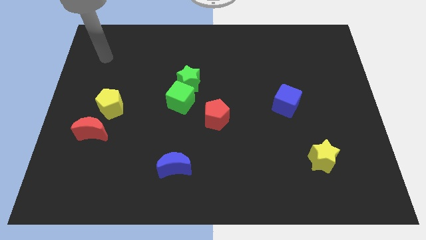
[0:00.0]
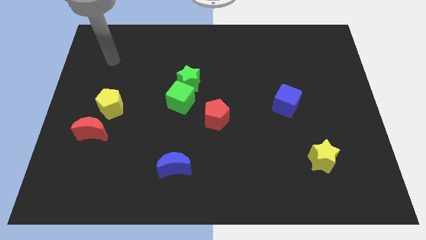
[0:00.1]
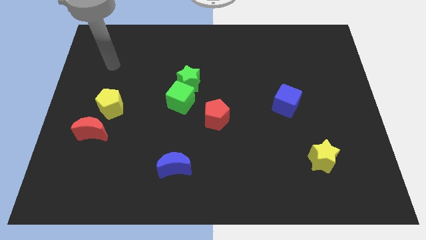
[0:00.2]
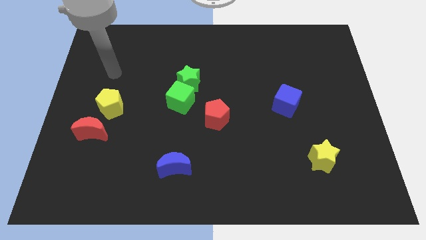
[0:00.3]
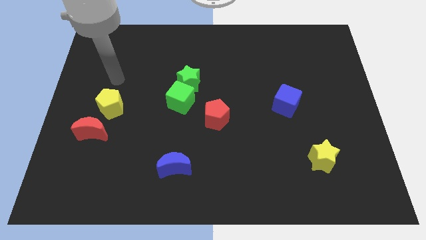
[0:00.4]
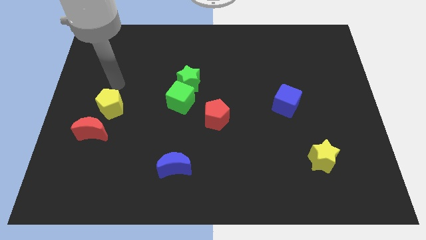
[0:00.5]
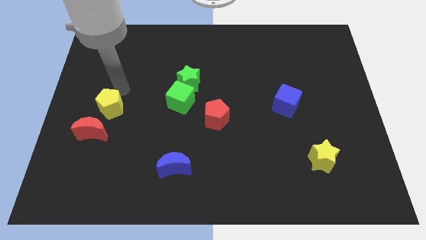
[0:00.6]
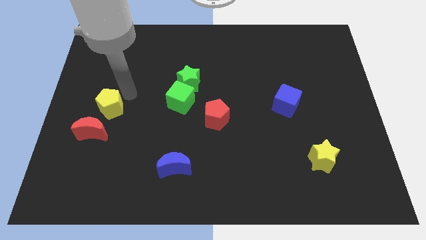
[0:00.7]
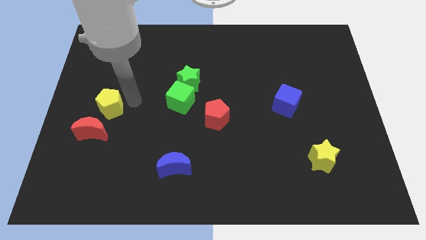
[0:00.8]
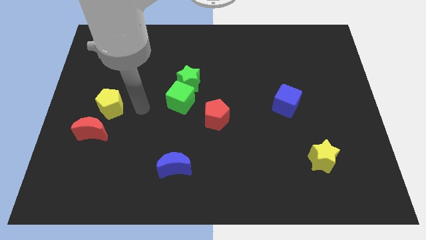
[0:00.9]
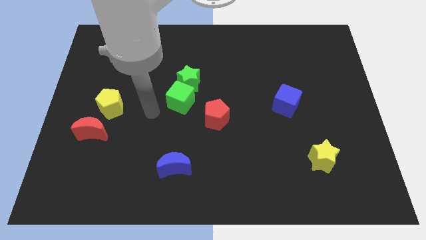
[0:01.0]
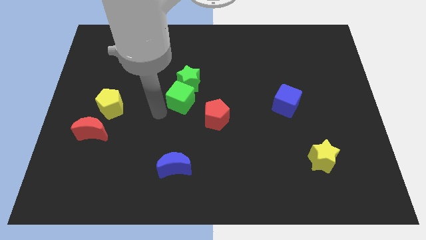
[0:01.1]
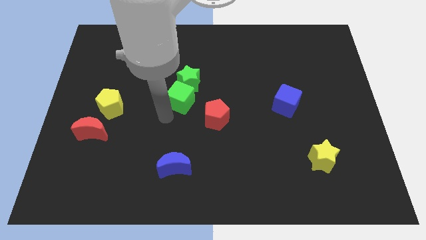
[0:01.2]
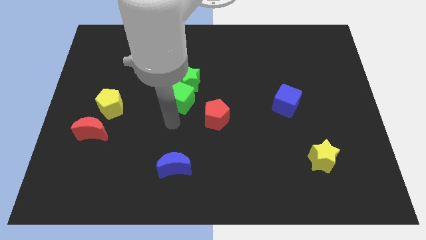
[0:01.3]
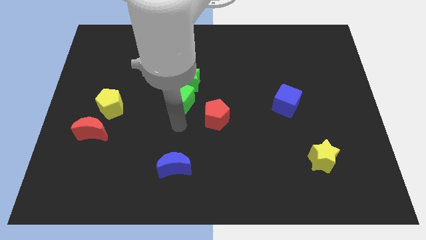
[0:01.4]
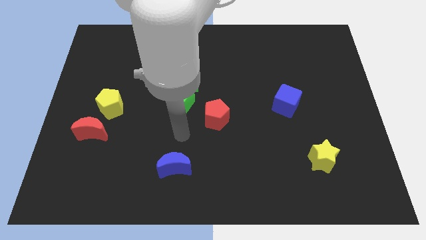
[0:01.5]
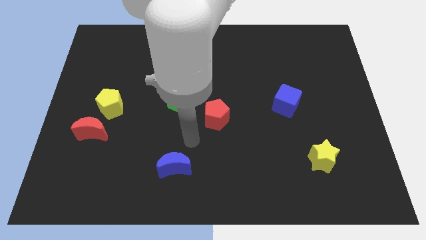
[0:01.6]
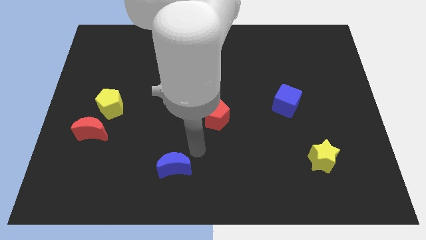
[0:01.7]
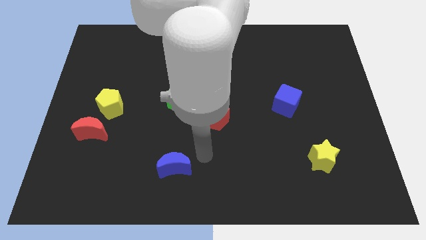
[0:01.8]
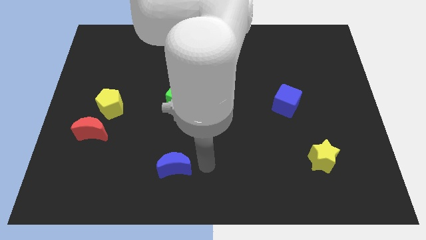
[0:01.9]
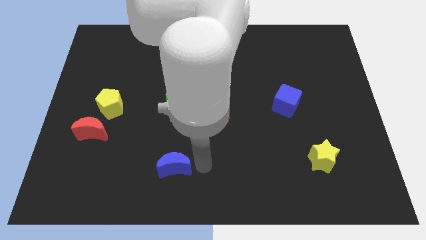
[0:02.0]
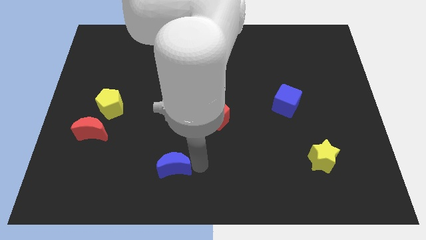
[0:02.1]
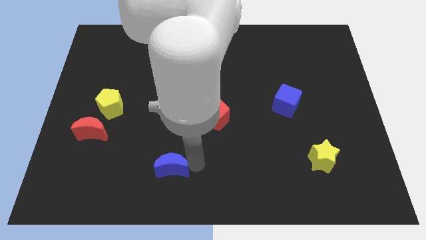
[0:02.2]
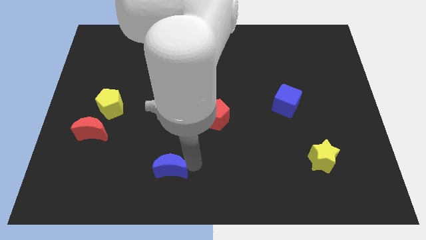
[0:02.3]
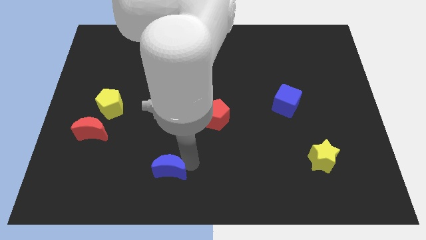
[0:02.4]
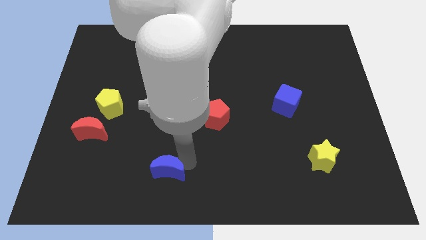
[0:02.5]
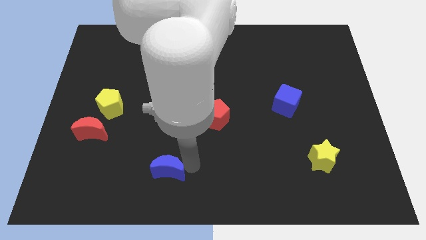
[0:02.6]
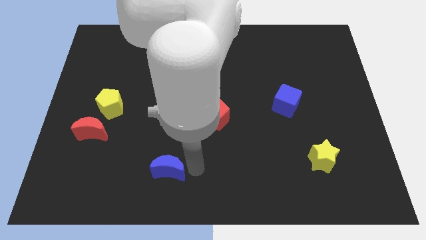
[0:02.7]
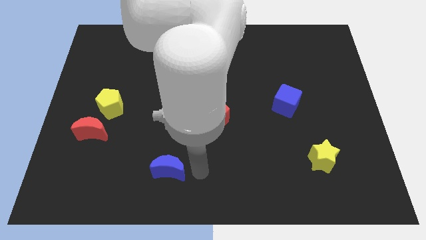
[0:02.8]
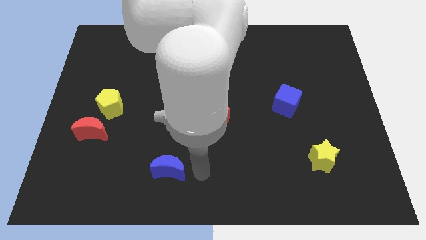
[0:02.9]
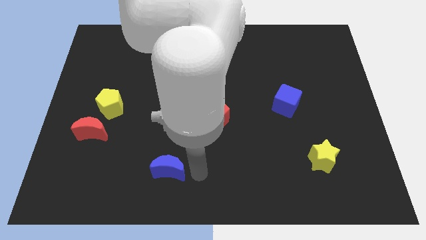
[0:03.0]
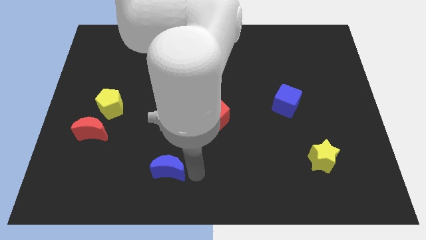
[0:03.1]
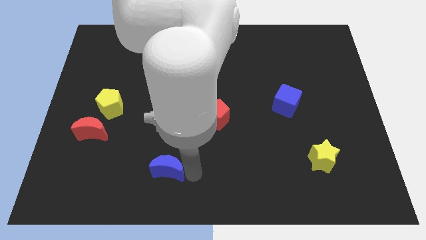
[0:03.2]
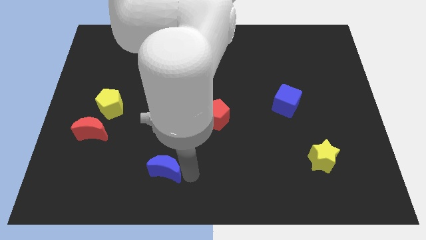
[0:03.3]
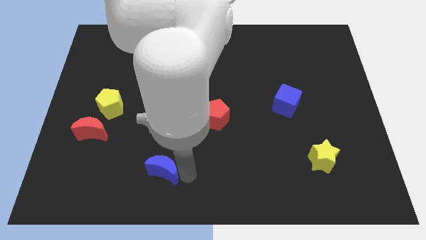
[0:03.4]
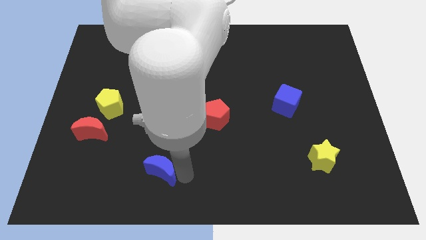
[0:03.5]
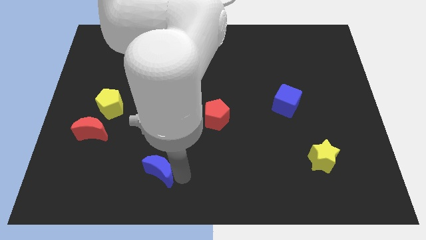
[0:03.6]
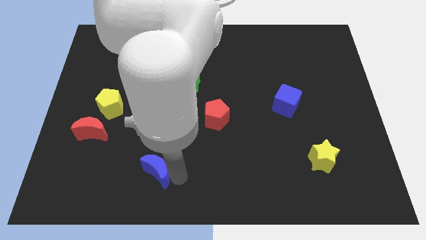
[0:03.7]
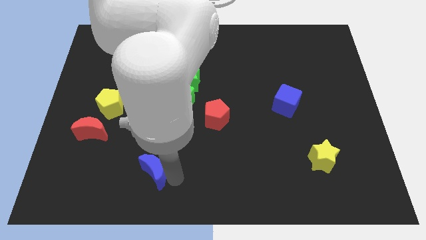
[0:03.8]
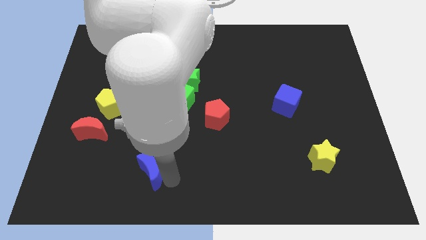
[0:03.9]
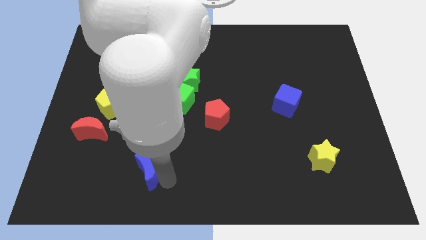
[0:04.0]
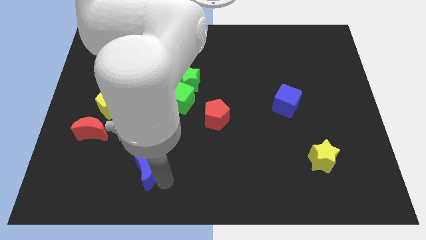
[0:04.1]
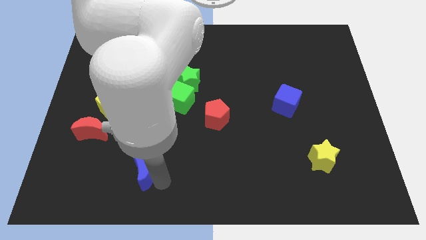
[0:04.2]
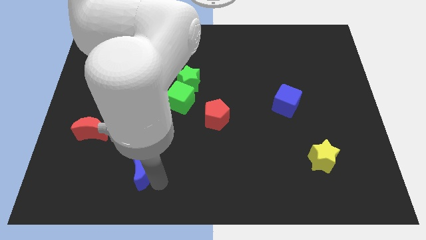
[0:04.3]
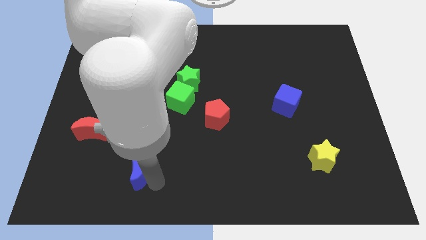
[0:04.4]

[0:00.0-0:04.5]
slightly push the blue moon left

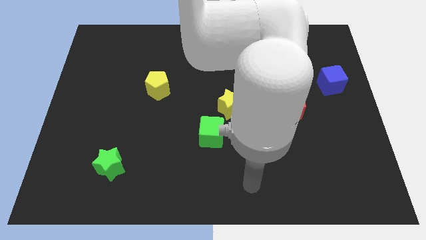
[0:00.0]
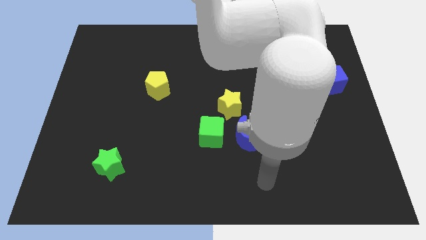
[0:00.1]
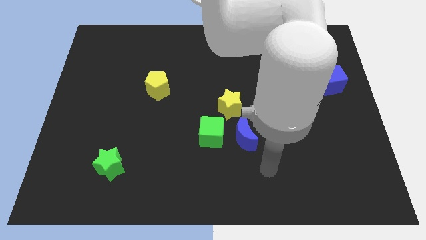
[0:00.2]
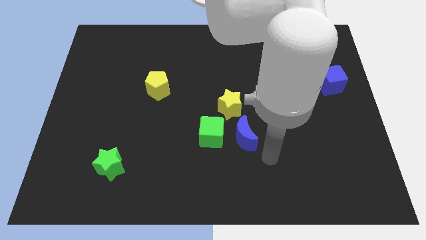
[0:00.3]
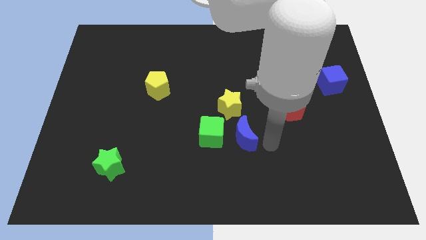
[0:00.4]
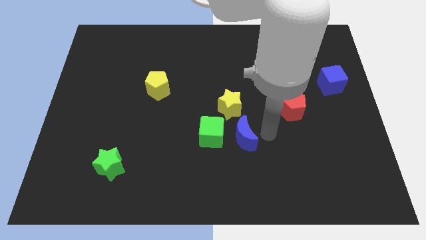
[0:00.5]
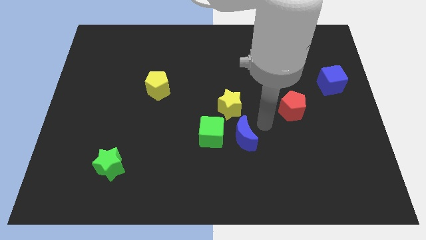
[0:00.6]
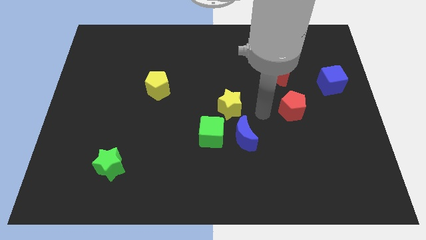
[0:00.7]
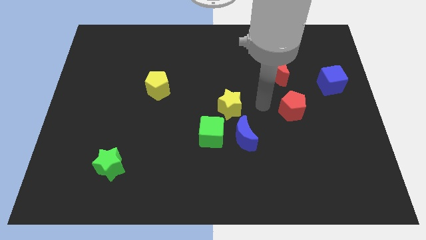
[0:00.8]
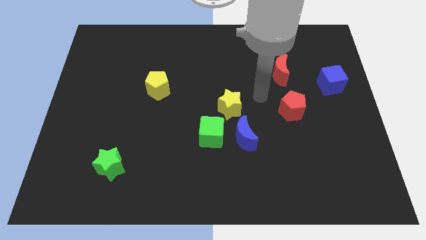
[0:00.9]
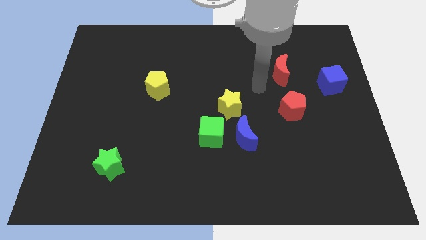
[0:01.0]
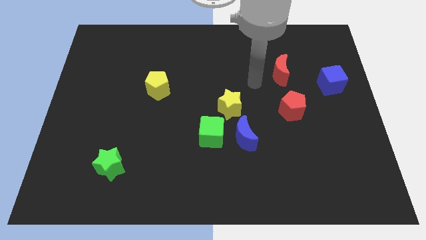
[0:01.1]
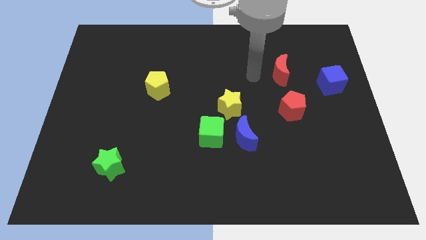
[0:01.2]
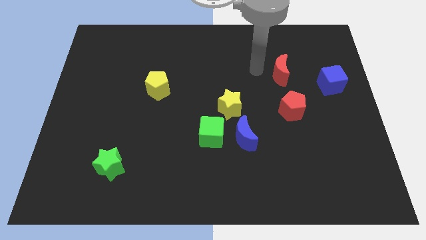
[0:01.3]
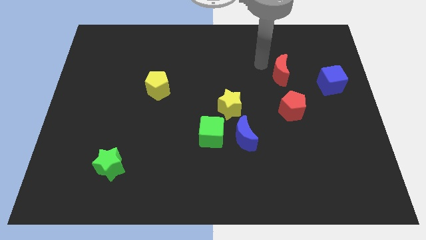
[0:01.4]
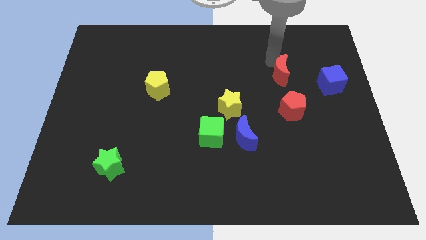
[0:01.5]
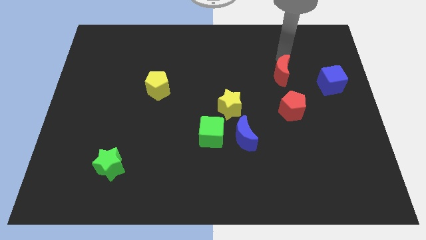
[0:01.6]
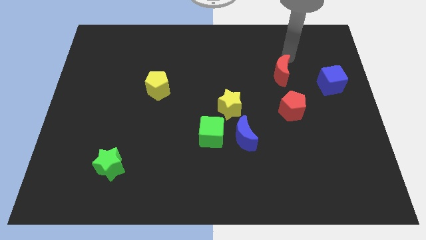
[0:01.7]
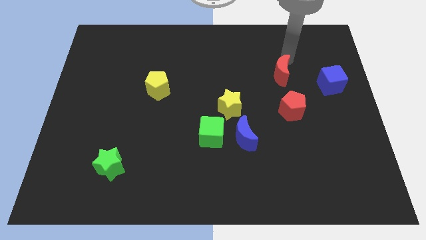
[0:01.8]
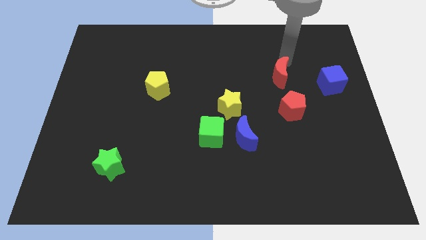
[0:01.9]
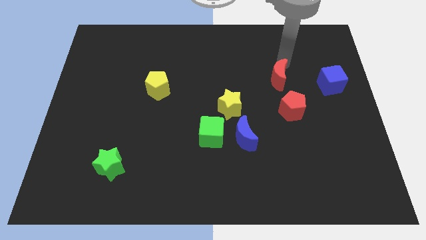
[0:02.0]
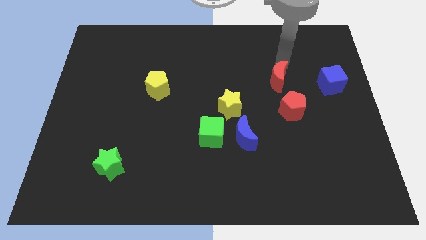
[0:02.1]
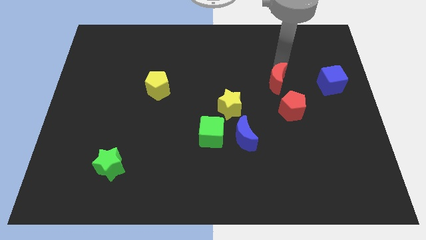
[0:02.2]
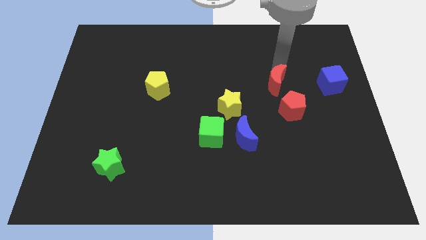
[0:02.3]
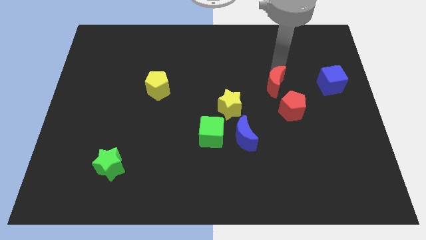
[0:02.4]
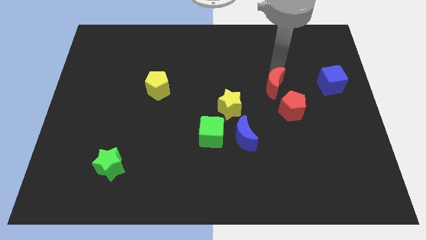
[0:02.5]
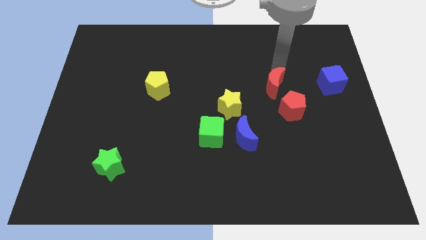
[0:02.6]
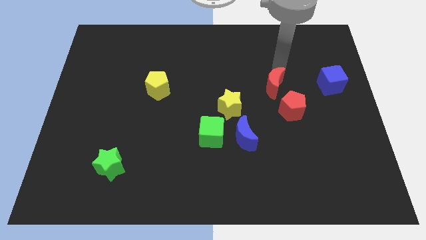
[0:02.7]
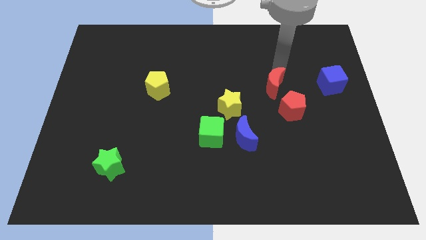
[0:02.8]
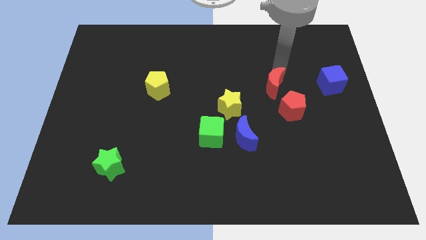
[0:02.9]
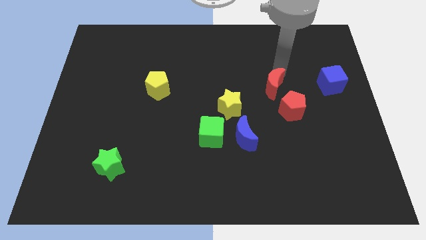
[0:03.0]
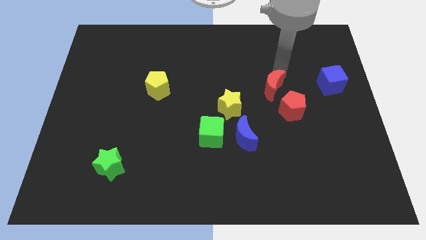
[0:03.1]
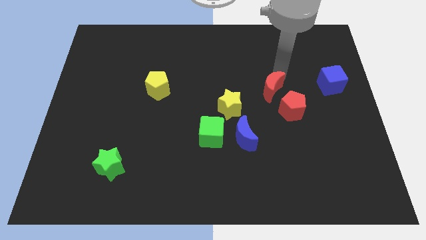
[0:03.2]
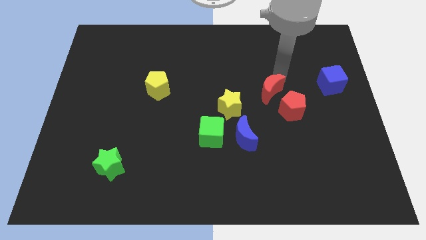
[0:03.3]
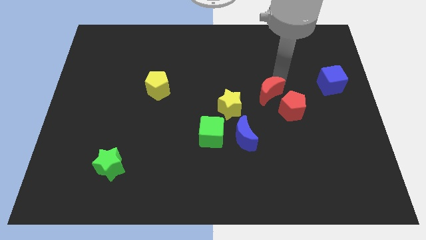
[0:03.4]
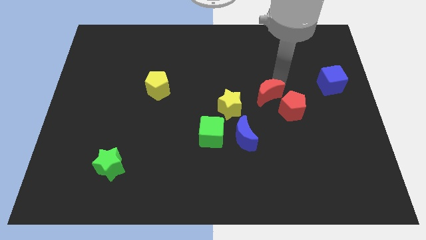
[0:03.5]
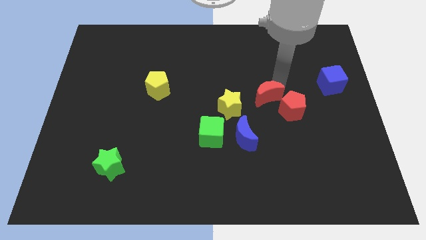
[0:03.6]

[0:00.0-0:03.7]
push the red moon downwards a little bit
